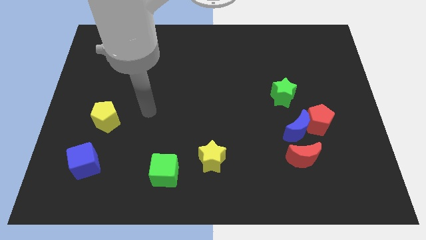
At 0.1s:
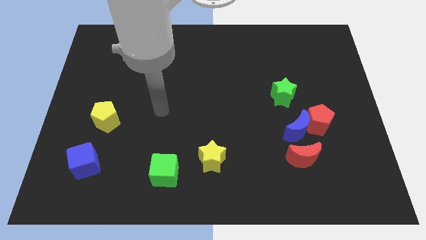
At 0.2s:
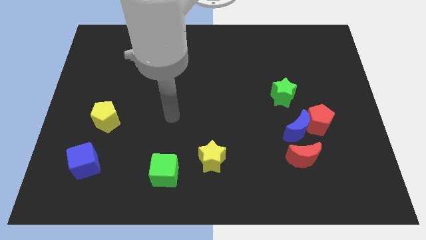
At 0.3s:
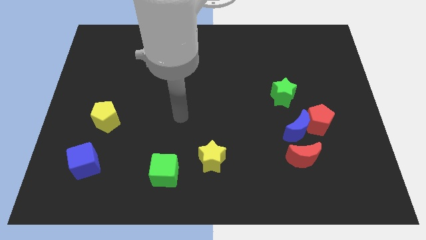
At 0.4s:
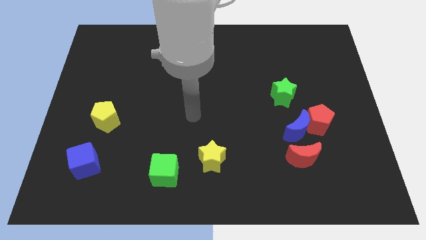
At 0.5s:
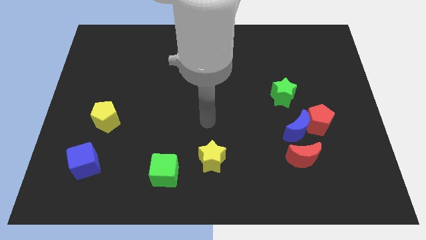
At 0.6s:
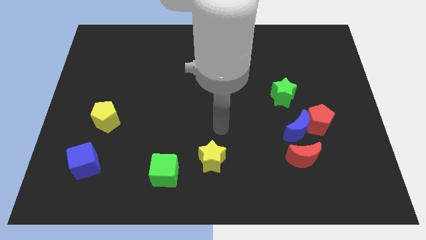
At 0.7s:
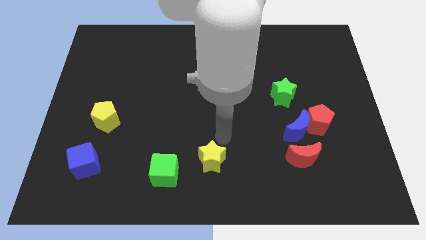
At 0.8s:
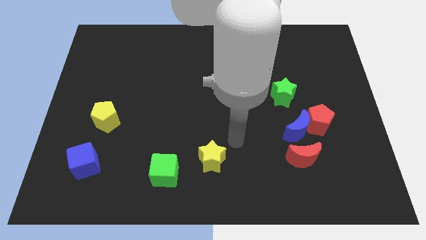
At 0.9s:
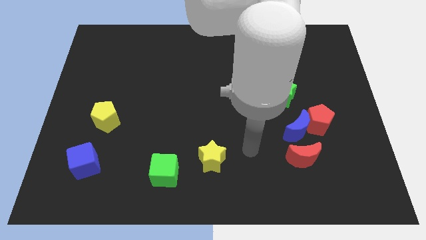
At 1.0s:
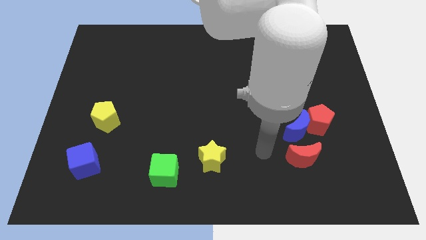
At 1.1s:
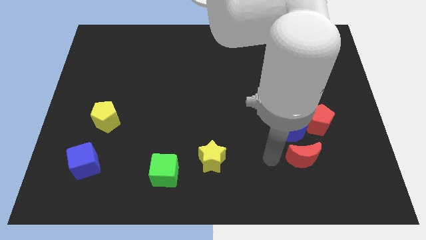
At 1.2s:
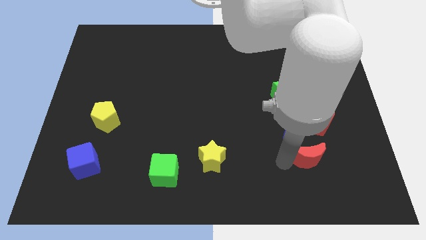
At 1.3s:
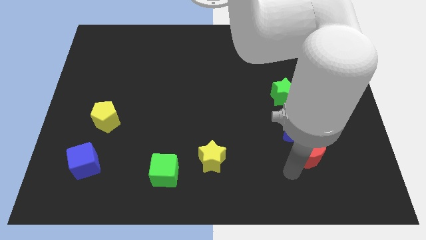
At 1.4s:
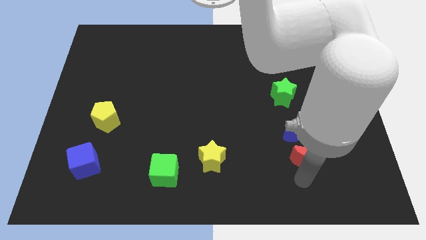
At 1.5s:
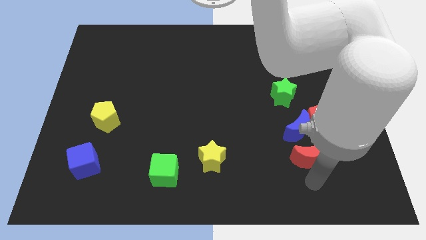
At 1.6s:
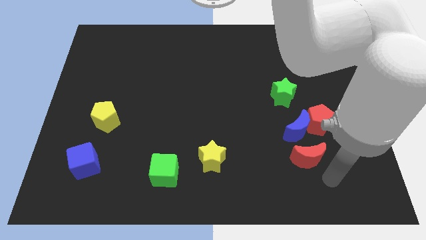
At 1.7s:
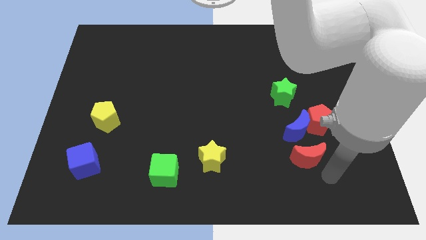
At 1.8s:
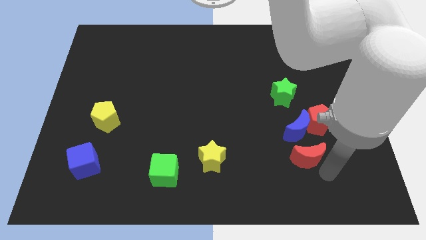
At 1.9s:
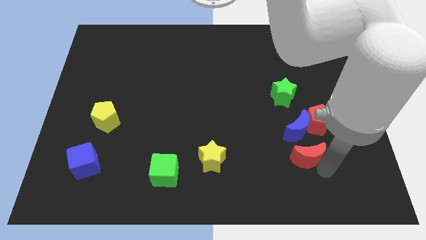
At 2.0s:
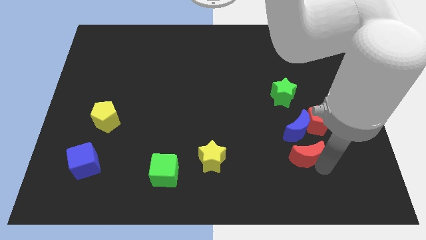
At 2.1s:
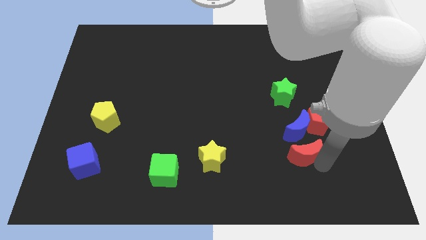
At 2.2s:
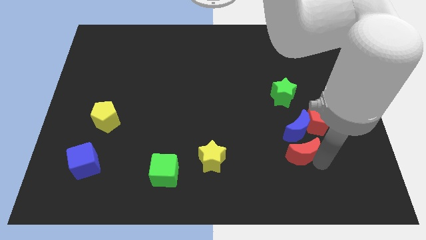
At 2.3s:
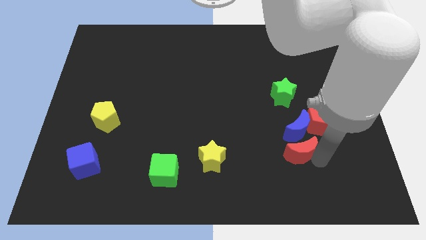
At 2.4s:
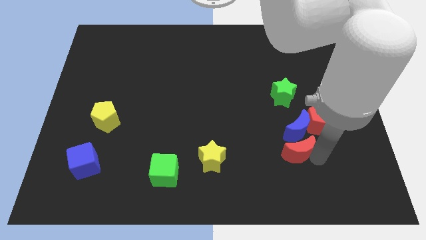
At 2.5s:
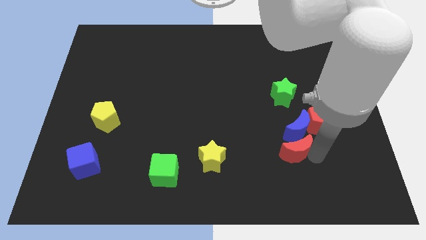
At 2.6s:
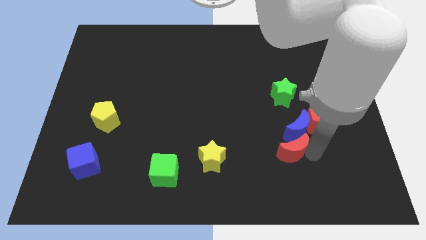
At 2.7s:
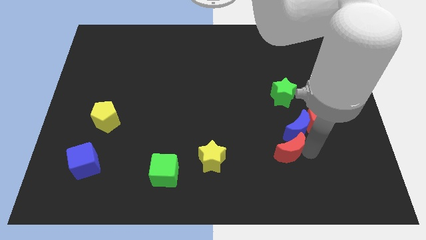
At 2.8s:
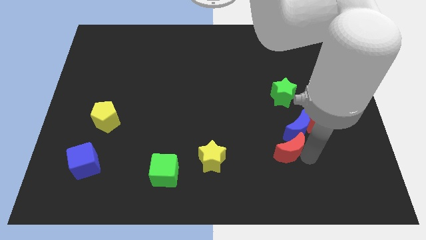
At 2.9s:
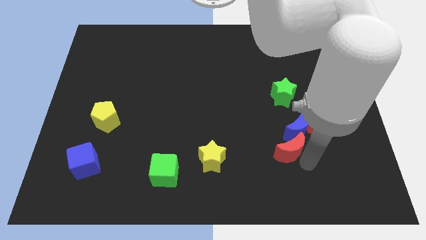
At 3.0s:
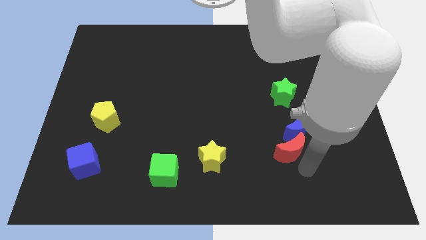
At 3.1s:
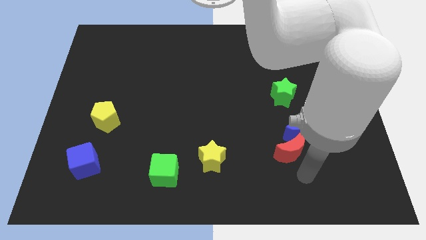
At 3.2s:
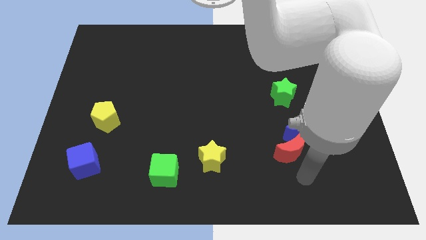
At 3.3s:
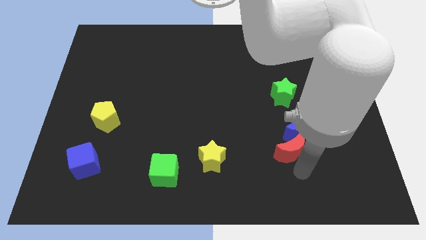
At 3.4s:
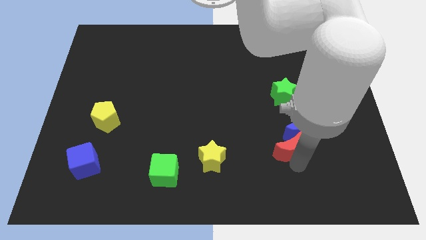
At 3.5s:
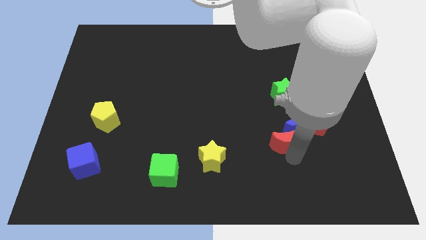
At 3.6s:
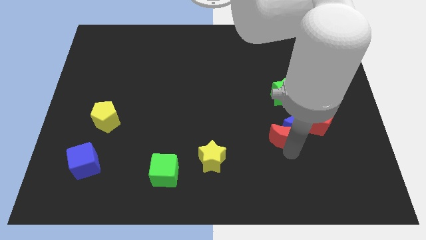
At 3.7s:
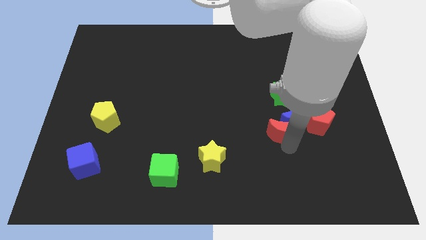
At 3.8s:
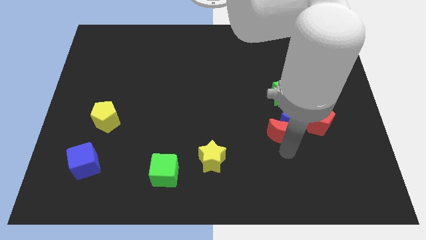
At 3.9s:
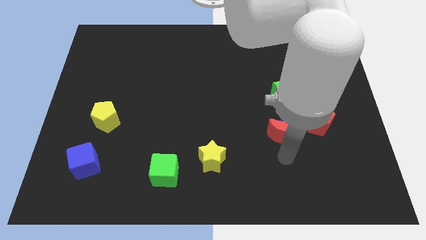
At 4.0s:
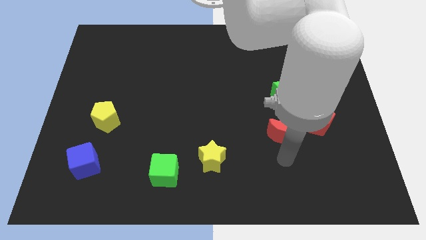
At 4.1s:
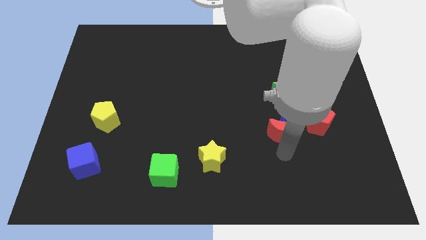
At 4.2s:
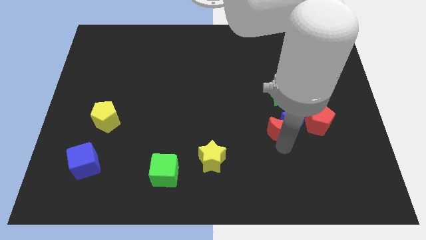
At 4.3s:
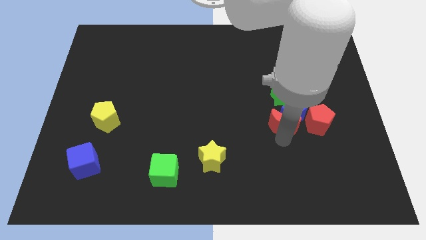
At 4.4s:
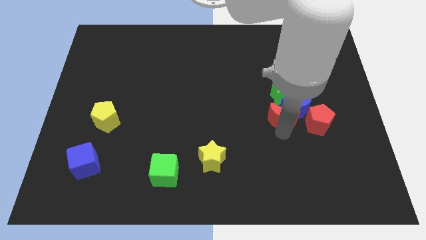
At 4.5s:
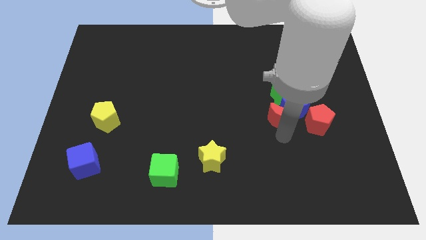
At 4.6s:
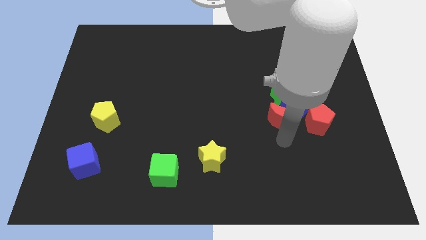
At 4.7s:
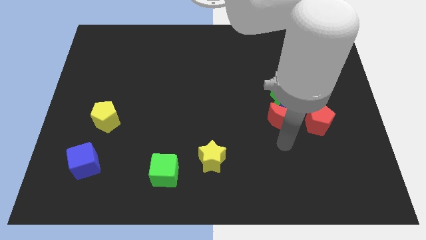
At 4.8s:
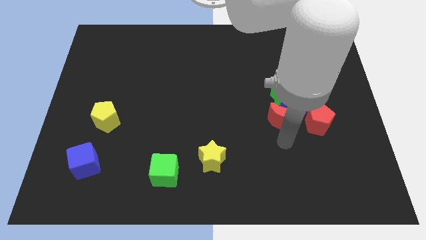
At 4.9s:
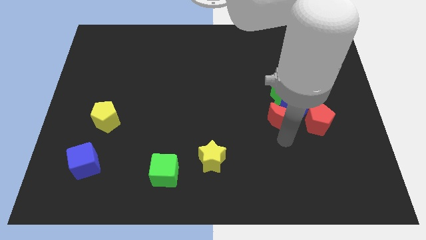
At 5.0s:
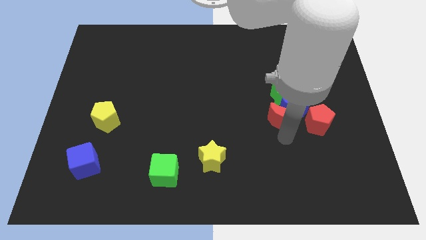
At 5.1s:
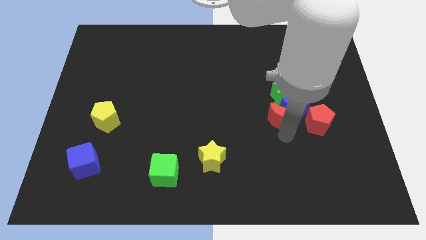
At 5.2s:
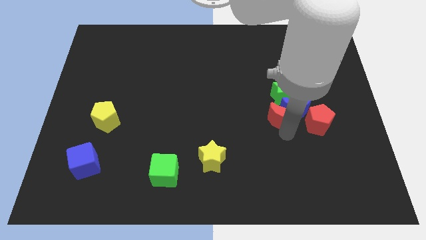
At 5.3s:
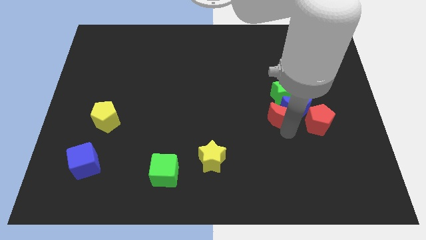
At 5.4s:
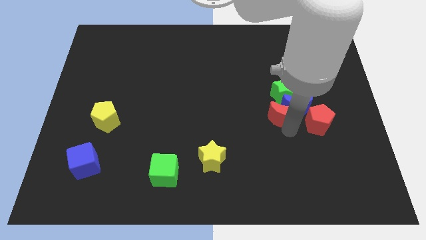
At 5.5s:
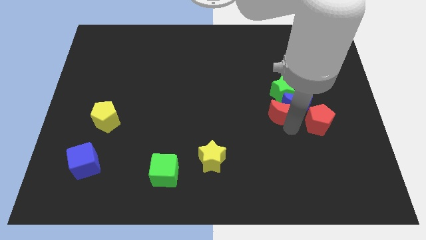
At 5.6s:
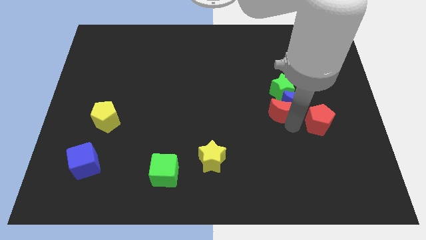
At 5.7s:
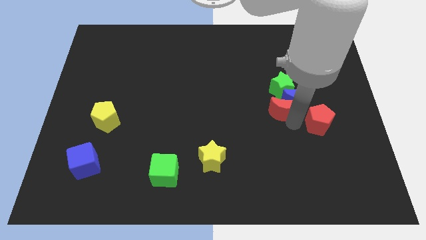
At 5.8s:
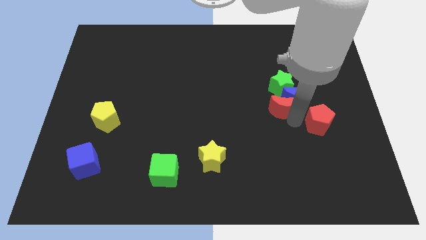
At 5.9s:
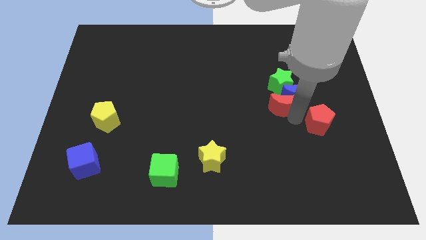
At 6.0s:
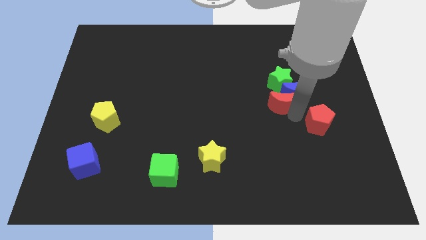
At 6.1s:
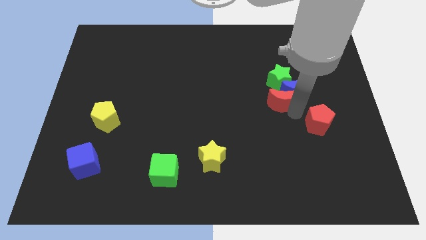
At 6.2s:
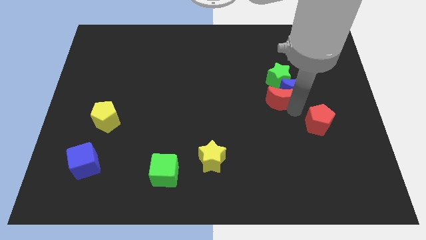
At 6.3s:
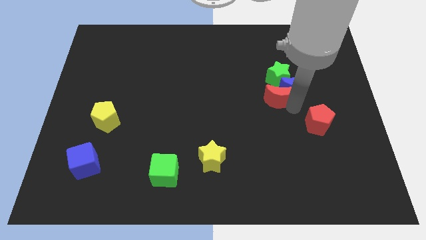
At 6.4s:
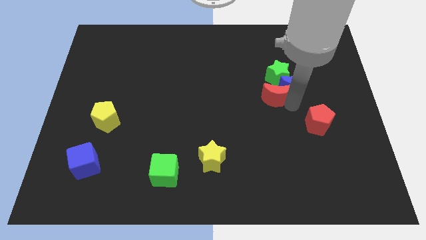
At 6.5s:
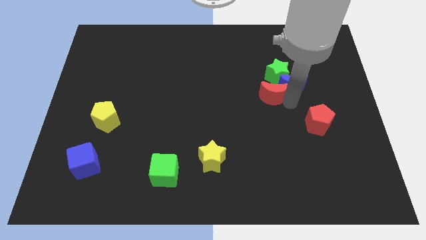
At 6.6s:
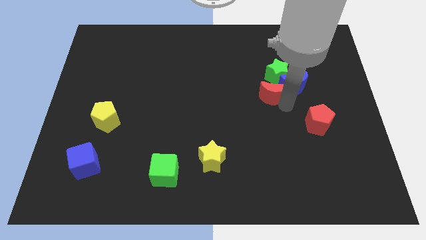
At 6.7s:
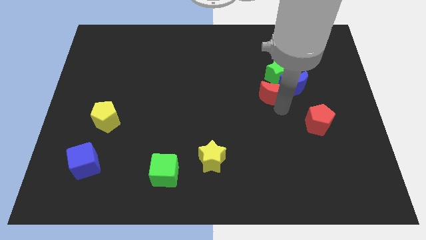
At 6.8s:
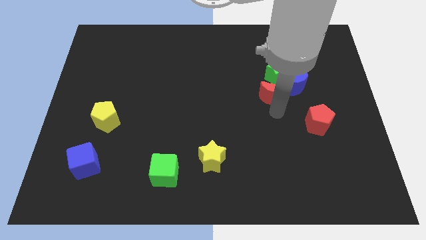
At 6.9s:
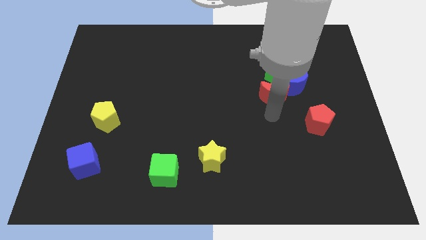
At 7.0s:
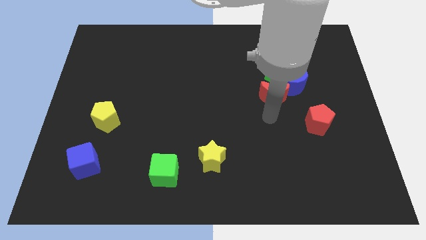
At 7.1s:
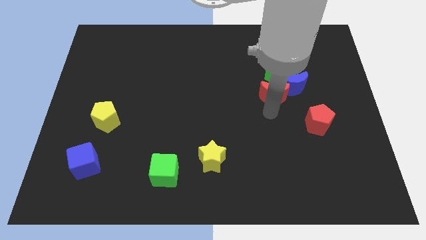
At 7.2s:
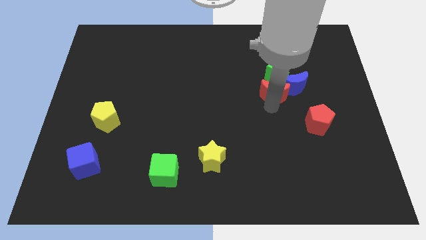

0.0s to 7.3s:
push the red moon to the green star
